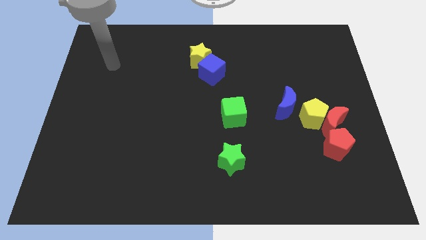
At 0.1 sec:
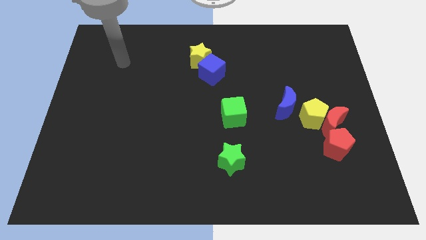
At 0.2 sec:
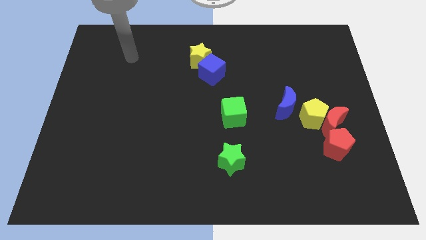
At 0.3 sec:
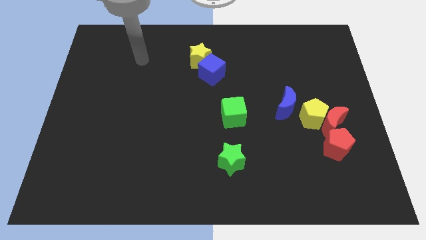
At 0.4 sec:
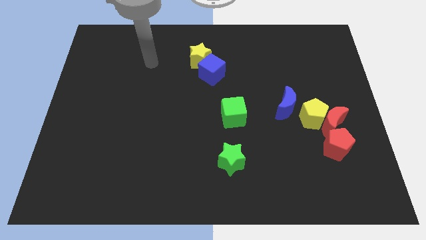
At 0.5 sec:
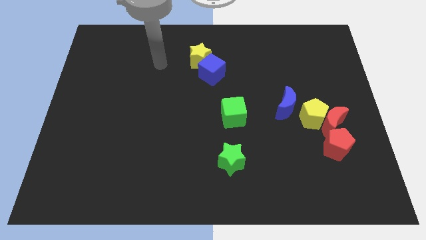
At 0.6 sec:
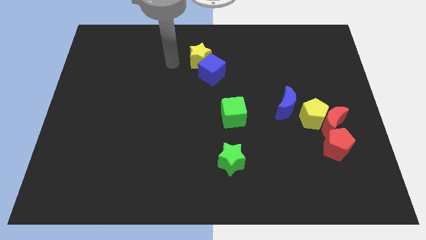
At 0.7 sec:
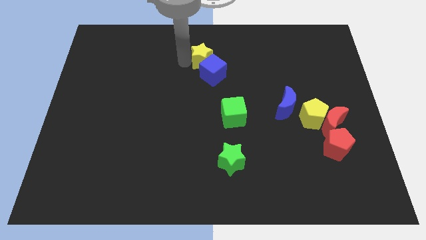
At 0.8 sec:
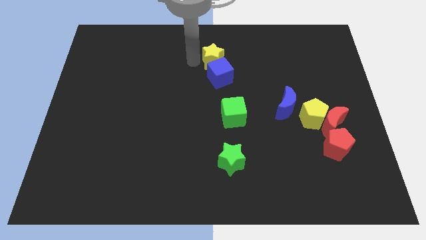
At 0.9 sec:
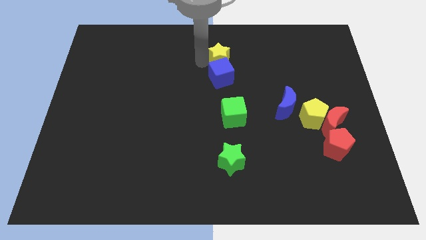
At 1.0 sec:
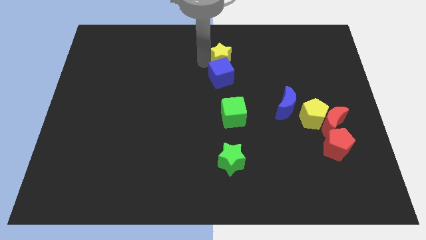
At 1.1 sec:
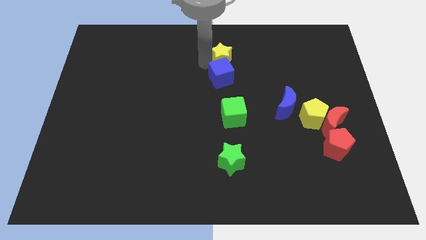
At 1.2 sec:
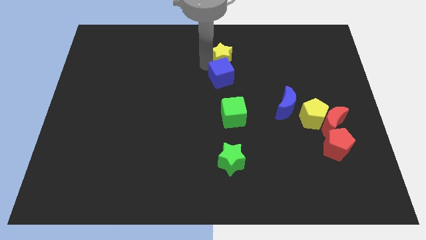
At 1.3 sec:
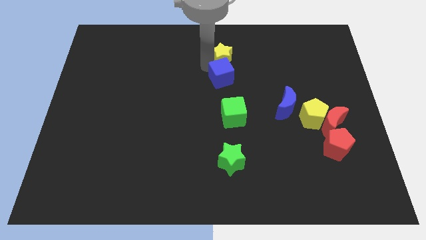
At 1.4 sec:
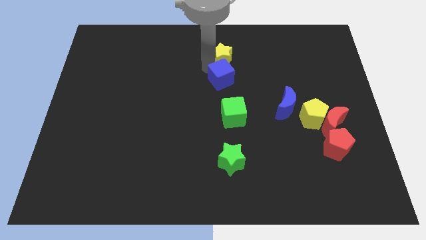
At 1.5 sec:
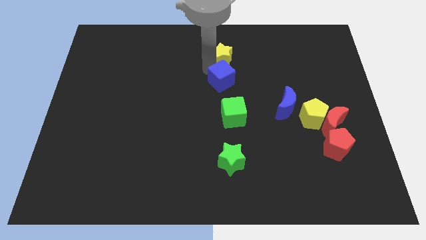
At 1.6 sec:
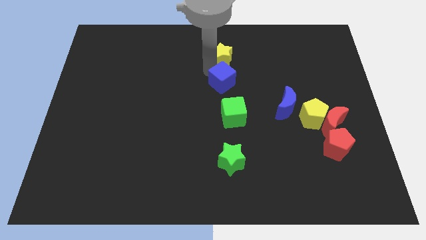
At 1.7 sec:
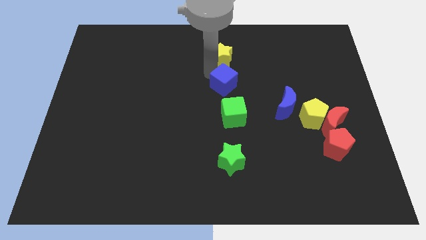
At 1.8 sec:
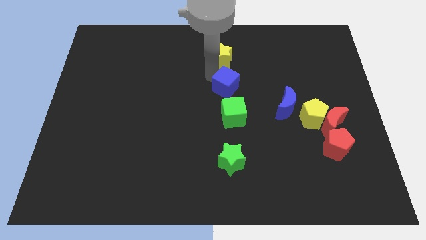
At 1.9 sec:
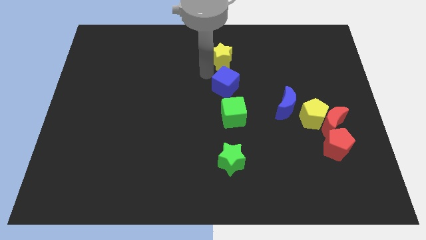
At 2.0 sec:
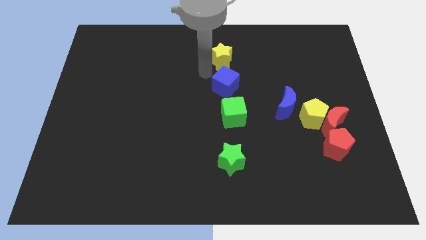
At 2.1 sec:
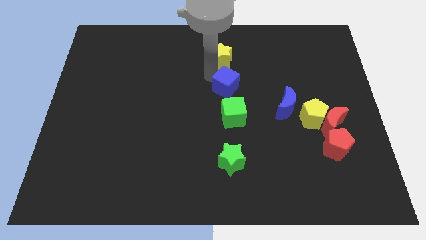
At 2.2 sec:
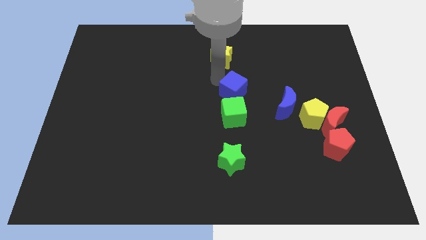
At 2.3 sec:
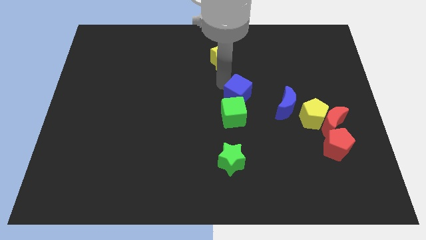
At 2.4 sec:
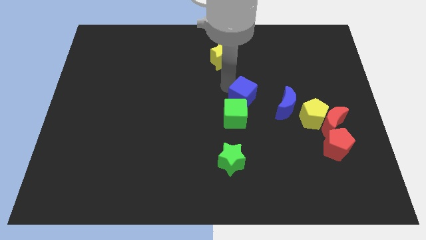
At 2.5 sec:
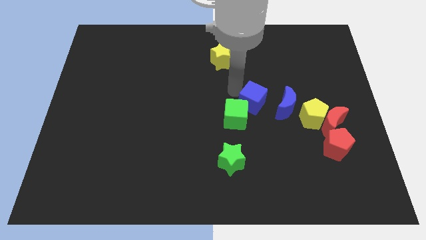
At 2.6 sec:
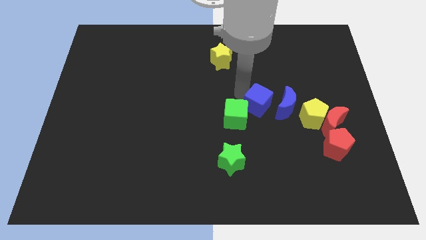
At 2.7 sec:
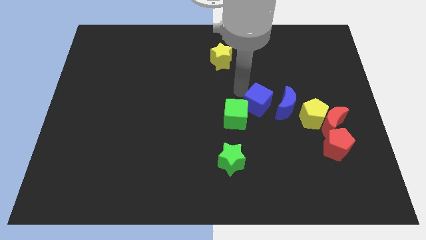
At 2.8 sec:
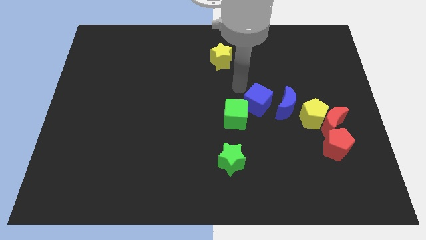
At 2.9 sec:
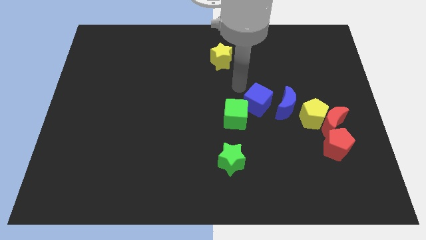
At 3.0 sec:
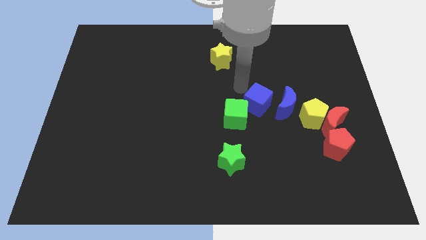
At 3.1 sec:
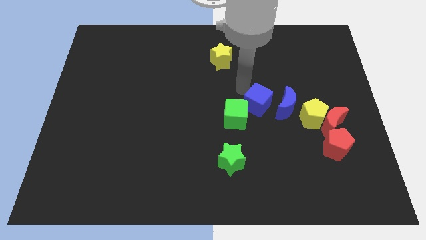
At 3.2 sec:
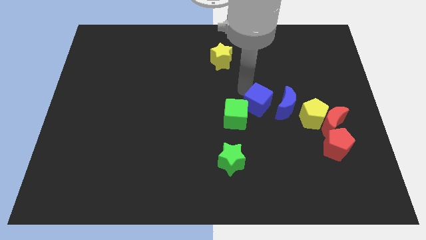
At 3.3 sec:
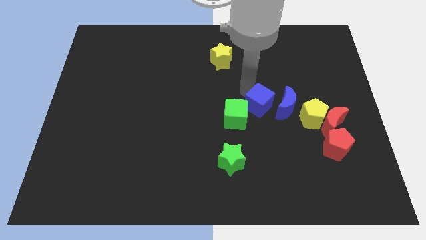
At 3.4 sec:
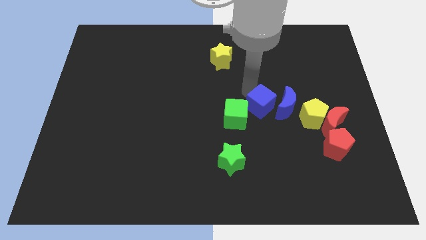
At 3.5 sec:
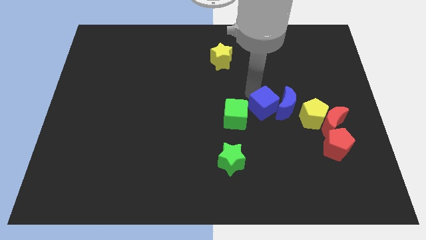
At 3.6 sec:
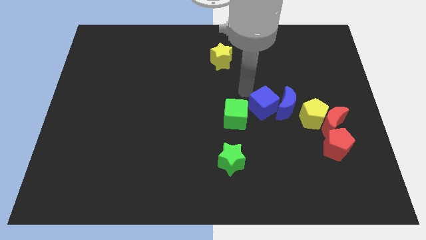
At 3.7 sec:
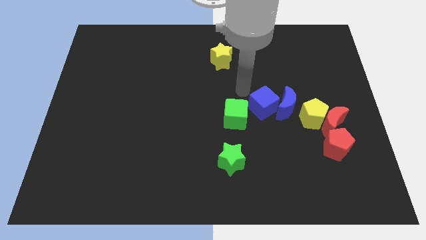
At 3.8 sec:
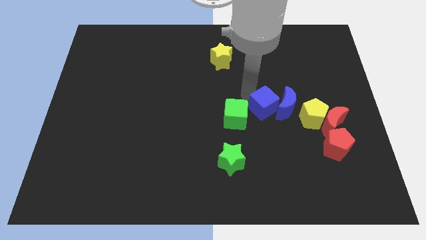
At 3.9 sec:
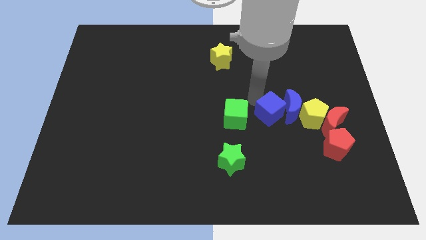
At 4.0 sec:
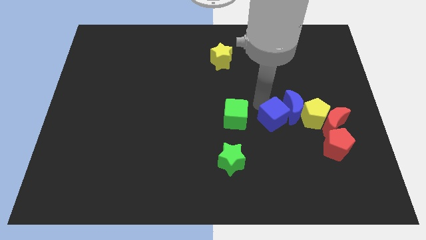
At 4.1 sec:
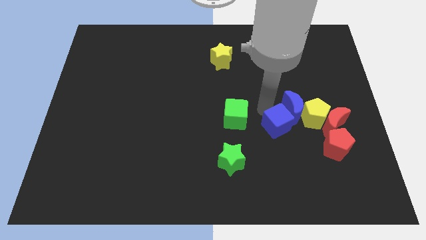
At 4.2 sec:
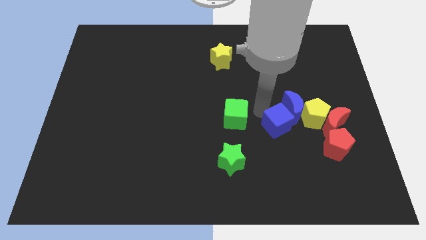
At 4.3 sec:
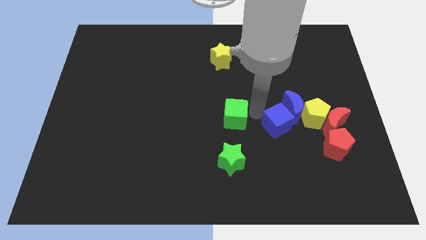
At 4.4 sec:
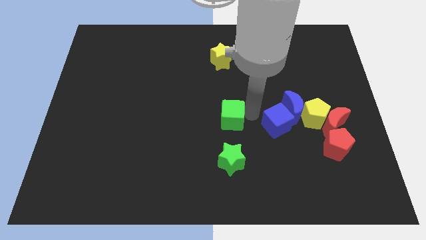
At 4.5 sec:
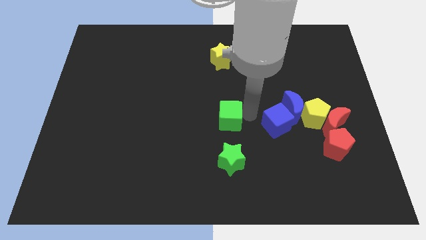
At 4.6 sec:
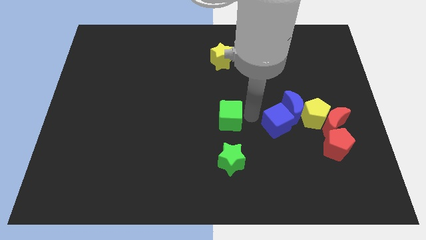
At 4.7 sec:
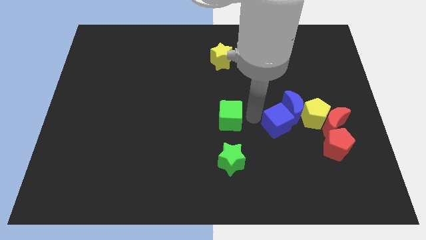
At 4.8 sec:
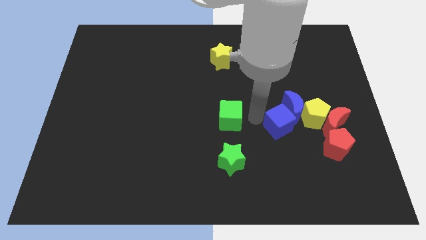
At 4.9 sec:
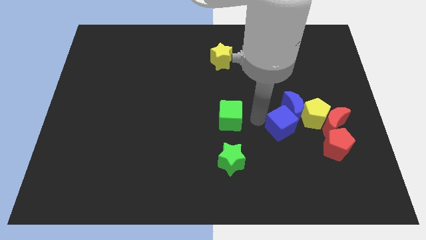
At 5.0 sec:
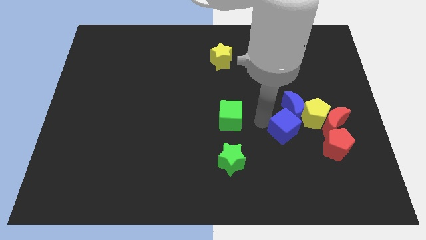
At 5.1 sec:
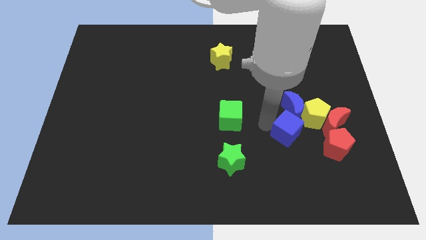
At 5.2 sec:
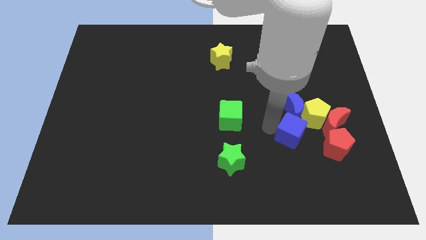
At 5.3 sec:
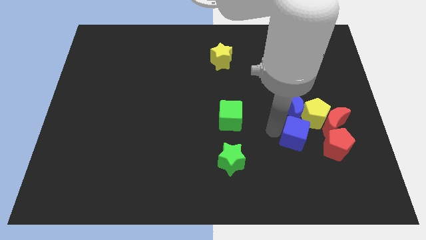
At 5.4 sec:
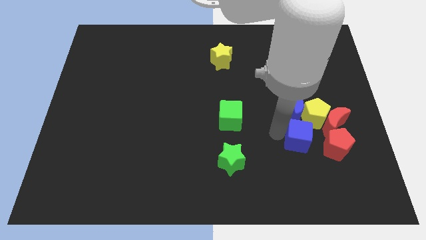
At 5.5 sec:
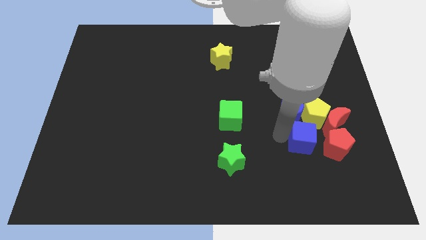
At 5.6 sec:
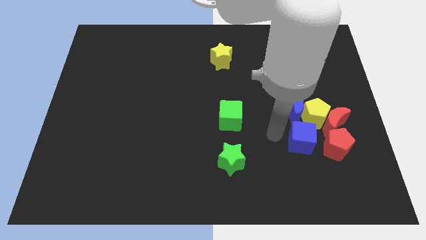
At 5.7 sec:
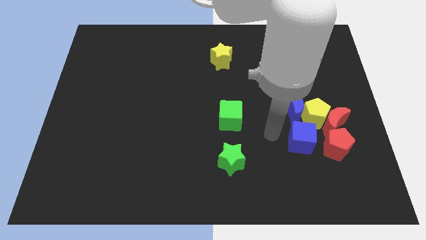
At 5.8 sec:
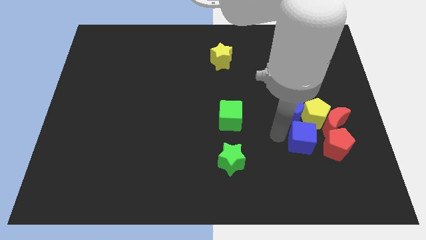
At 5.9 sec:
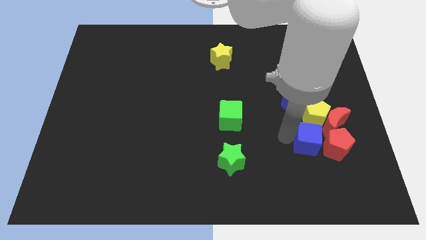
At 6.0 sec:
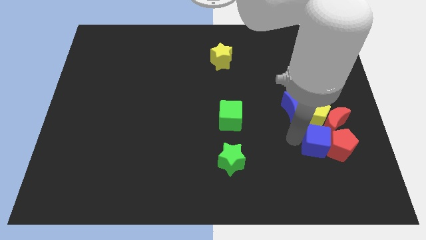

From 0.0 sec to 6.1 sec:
move the blue cube to the red pentagon
